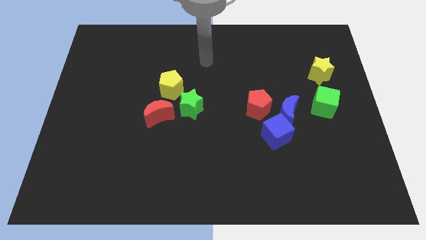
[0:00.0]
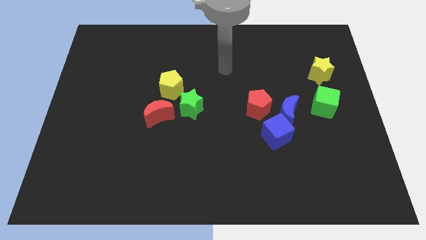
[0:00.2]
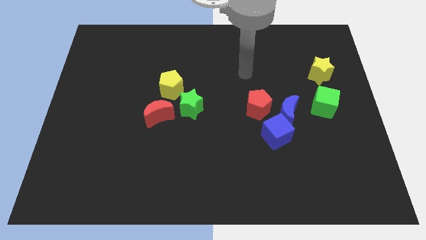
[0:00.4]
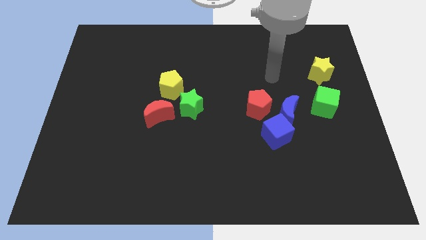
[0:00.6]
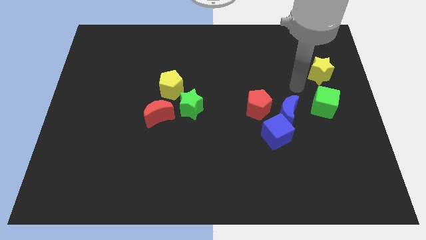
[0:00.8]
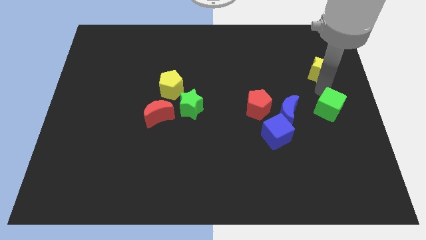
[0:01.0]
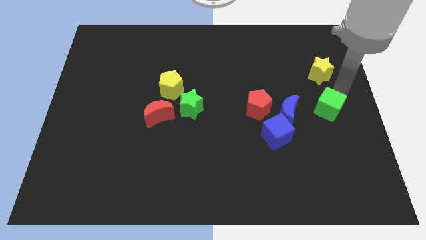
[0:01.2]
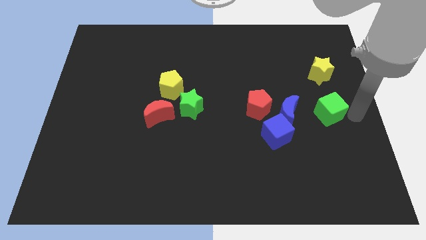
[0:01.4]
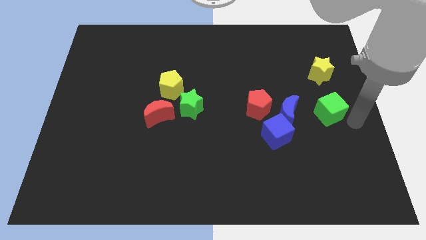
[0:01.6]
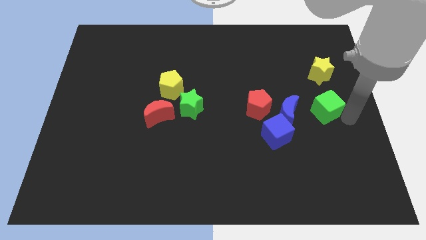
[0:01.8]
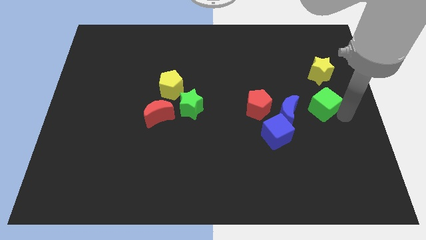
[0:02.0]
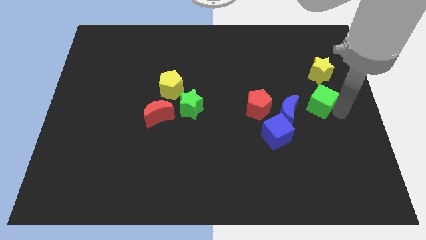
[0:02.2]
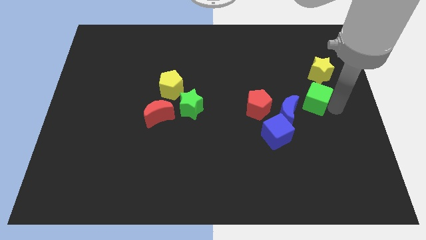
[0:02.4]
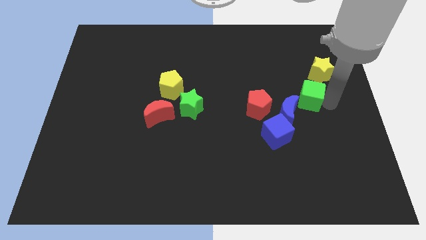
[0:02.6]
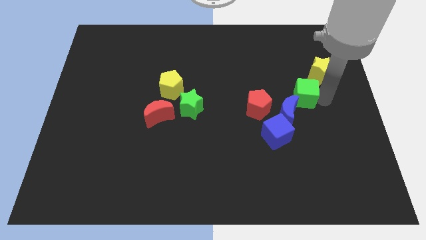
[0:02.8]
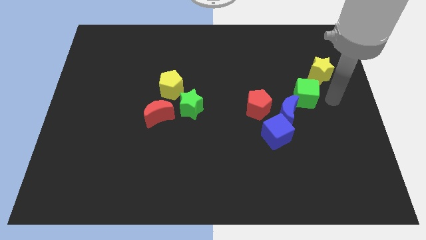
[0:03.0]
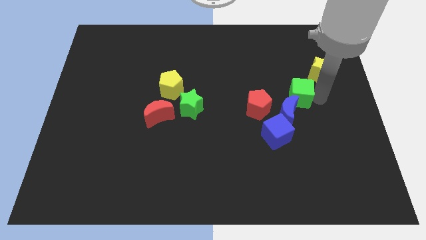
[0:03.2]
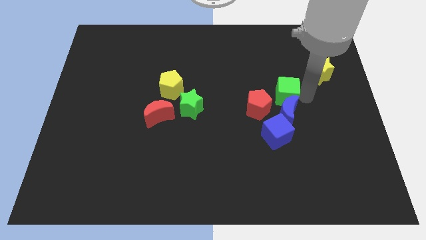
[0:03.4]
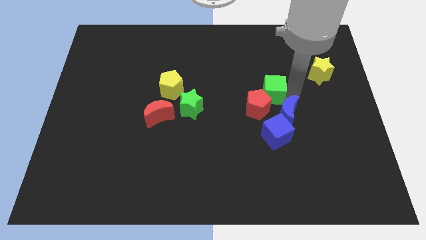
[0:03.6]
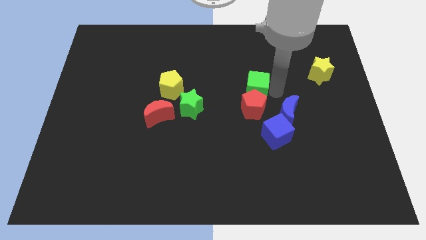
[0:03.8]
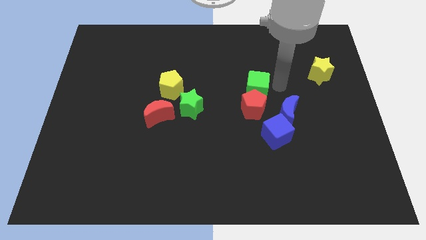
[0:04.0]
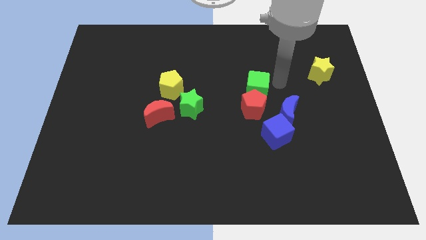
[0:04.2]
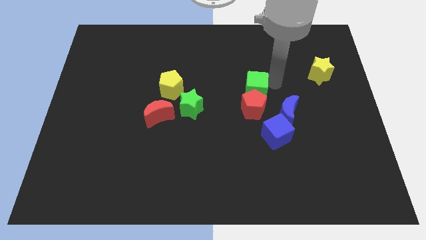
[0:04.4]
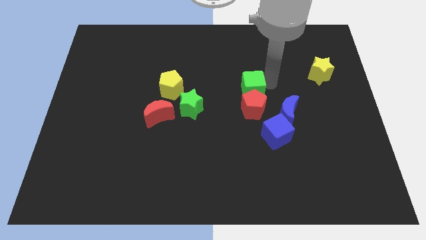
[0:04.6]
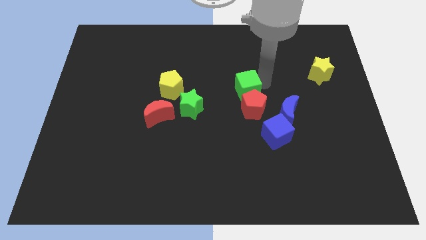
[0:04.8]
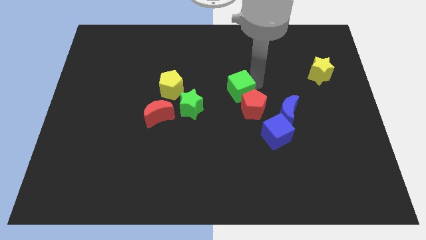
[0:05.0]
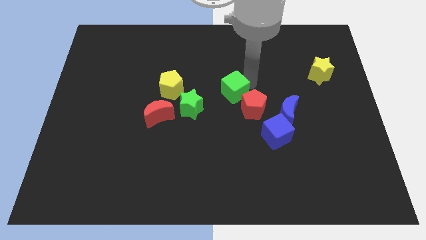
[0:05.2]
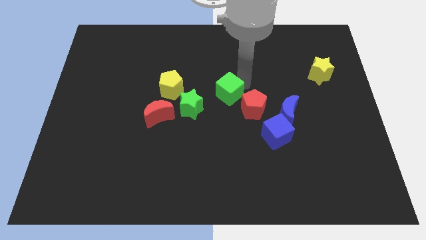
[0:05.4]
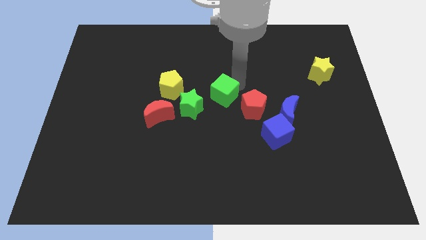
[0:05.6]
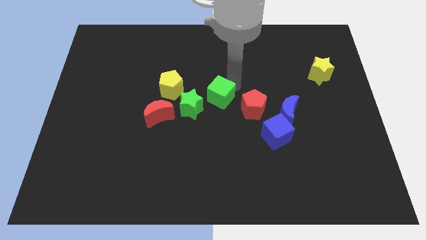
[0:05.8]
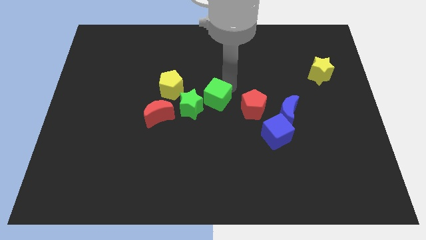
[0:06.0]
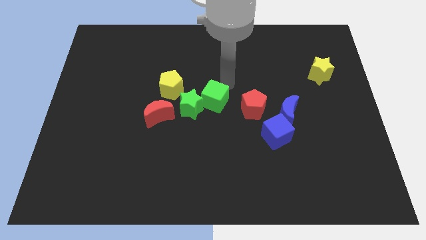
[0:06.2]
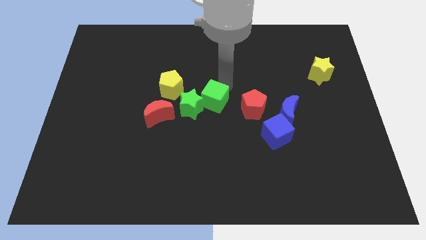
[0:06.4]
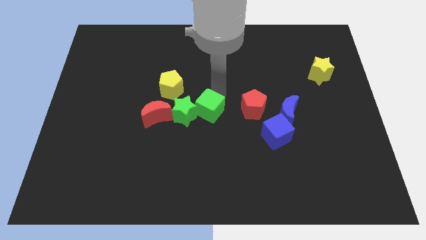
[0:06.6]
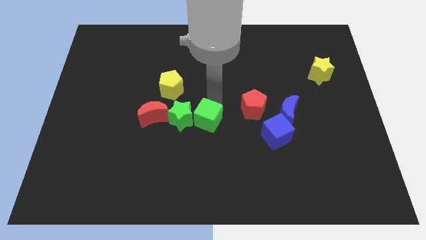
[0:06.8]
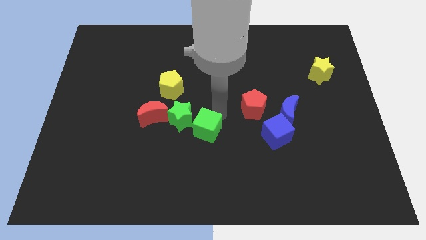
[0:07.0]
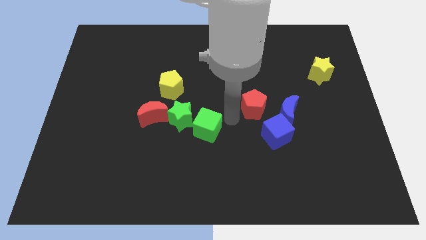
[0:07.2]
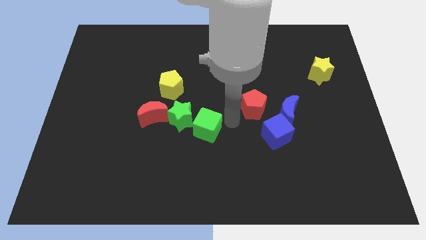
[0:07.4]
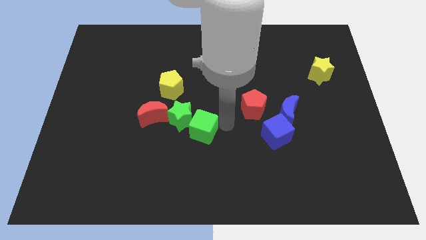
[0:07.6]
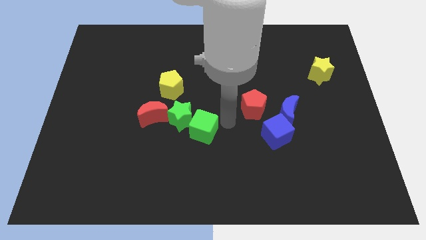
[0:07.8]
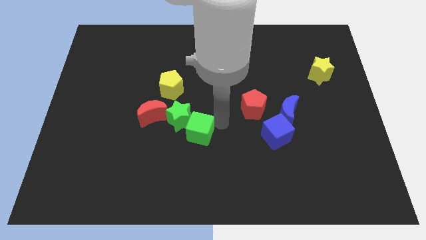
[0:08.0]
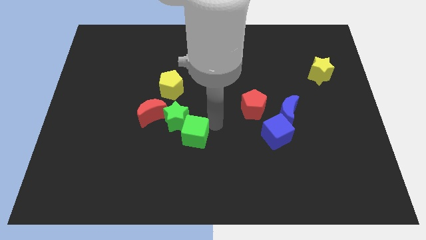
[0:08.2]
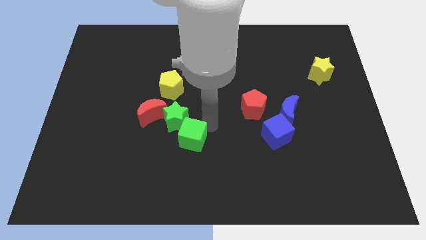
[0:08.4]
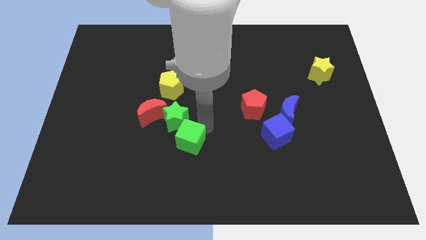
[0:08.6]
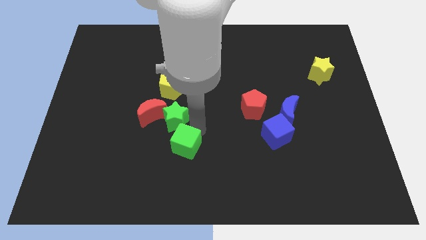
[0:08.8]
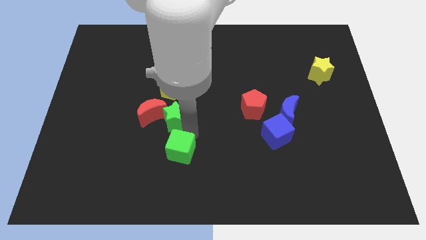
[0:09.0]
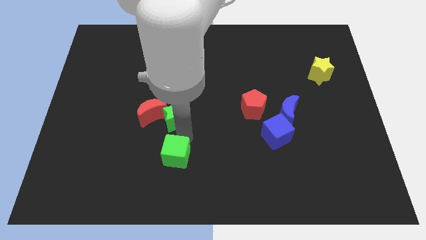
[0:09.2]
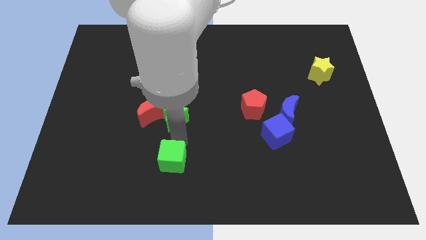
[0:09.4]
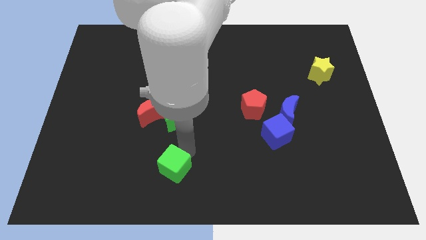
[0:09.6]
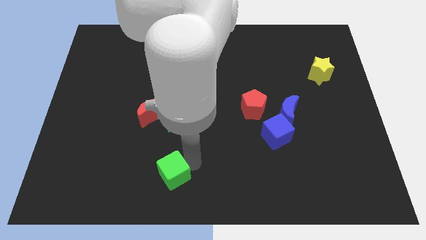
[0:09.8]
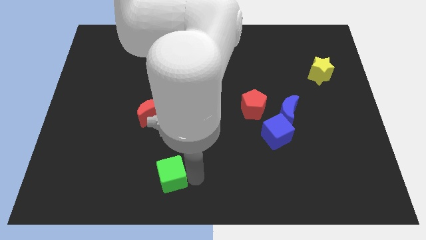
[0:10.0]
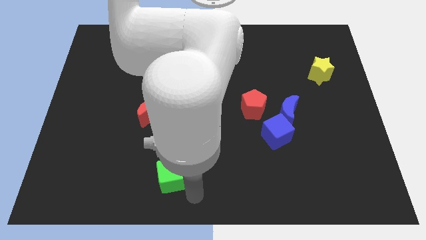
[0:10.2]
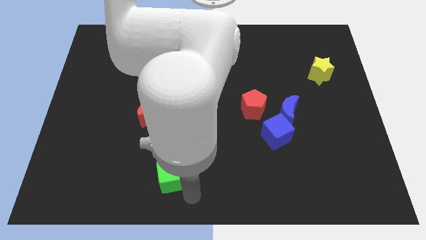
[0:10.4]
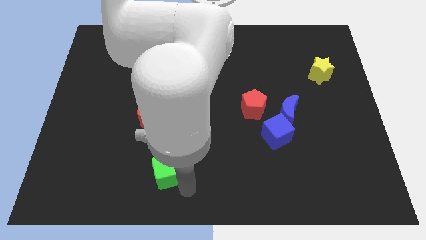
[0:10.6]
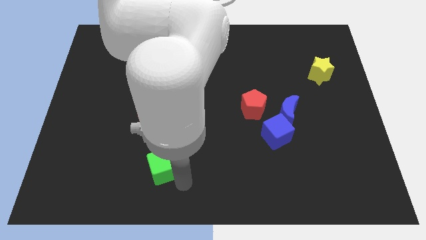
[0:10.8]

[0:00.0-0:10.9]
put the green cube below the red moon

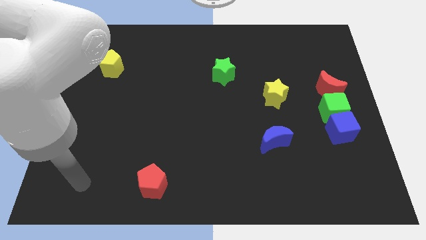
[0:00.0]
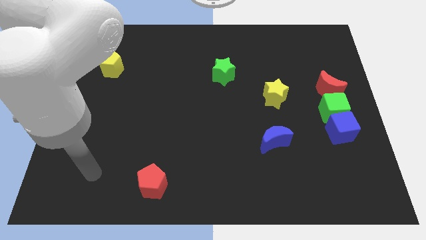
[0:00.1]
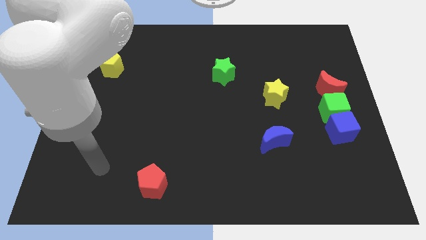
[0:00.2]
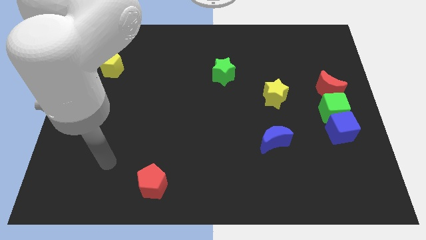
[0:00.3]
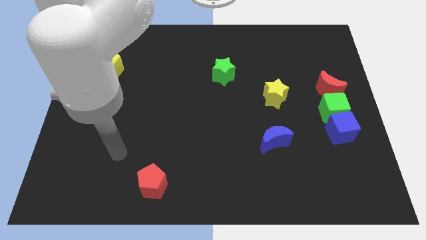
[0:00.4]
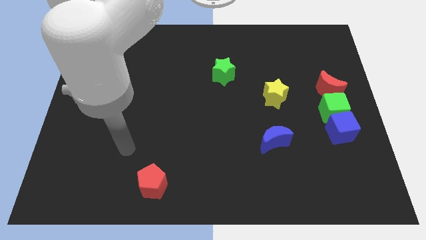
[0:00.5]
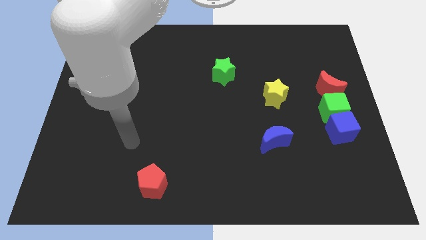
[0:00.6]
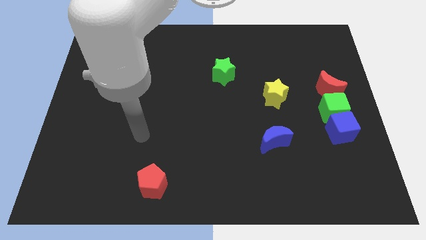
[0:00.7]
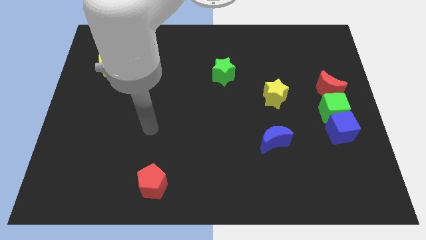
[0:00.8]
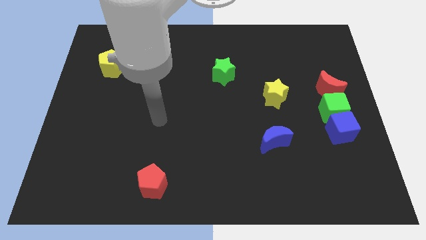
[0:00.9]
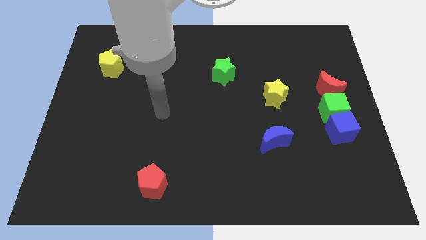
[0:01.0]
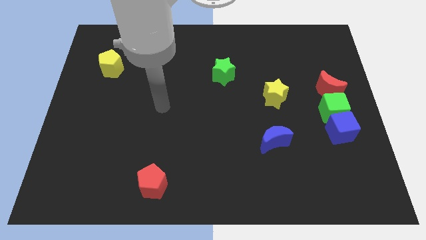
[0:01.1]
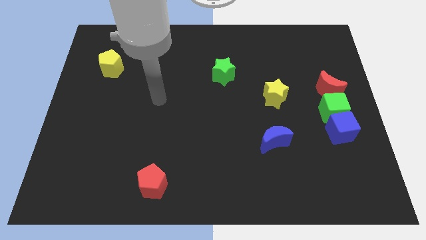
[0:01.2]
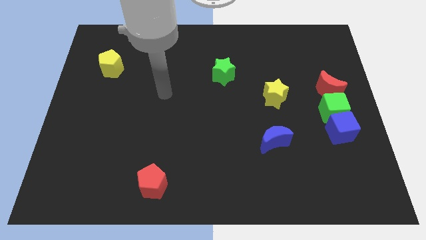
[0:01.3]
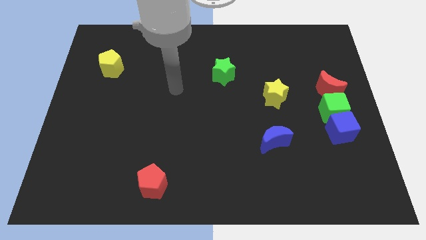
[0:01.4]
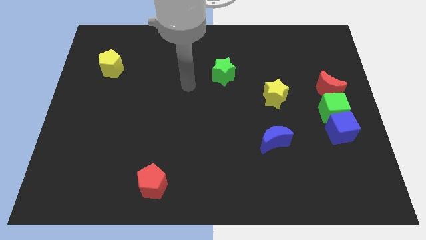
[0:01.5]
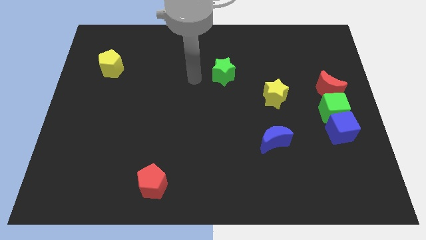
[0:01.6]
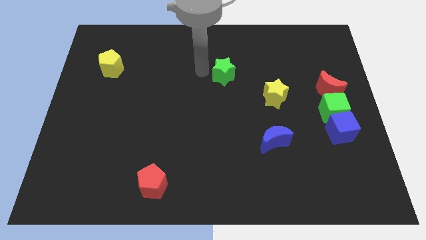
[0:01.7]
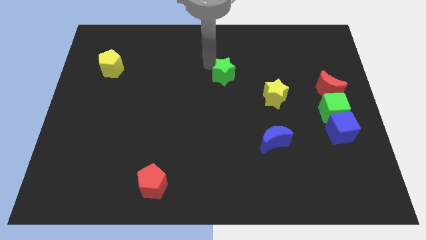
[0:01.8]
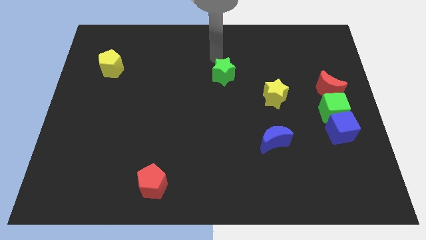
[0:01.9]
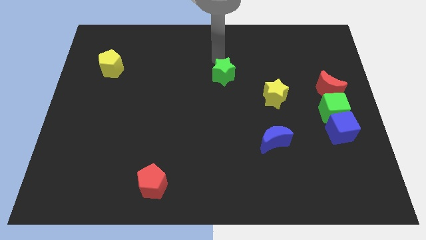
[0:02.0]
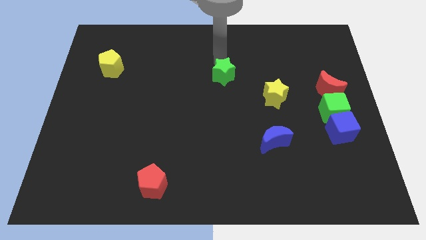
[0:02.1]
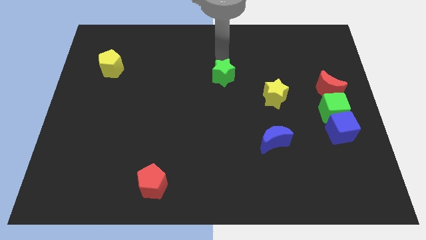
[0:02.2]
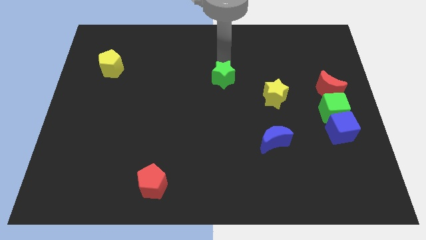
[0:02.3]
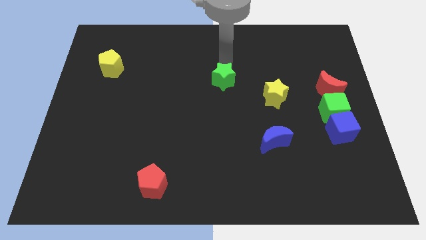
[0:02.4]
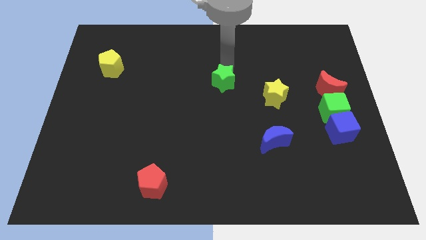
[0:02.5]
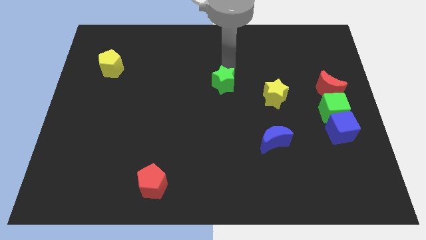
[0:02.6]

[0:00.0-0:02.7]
push the green star just left of the yellow star
